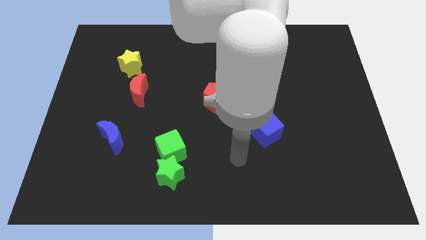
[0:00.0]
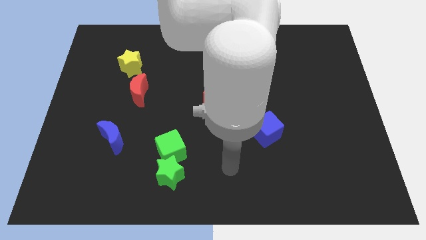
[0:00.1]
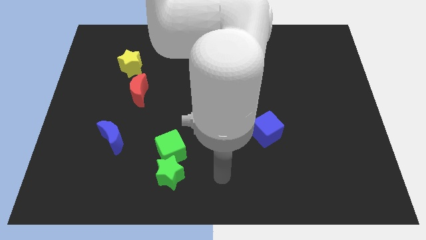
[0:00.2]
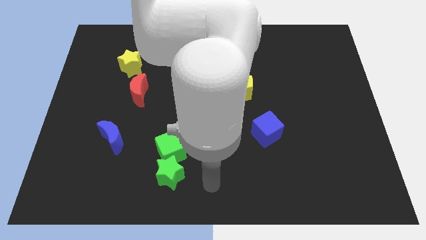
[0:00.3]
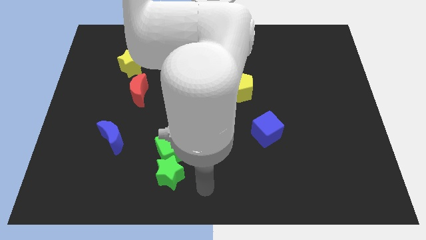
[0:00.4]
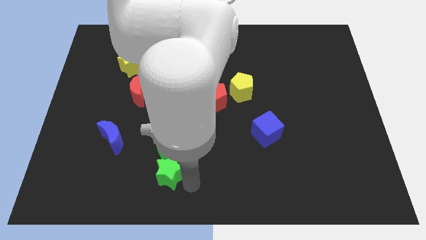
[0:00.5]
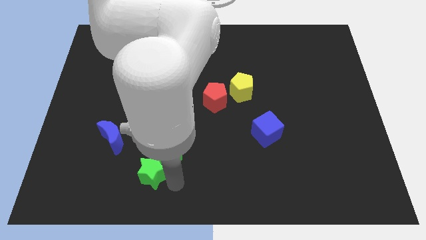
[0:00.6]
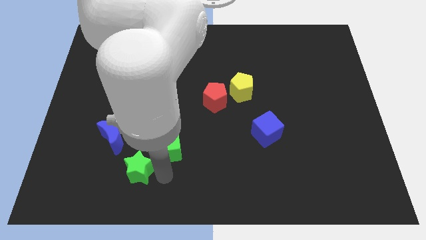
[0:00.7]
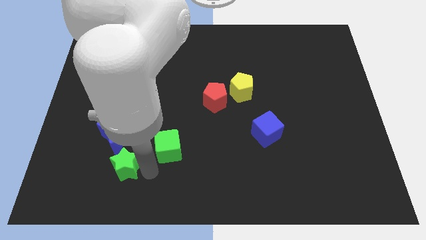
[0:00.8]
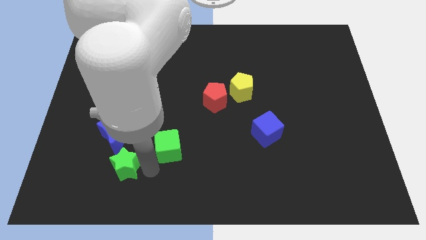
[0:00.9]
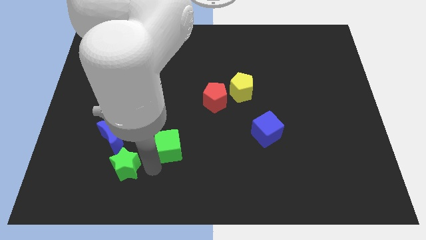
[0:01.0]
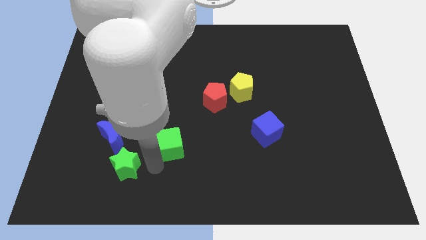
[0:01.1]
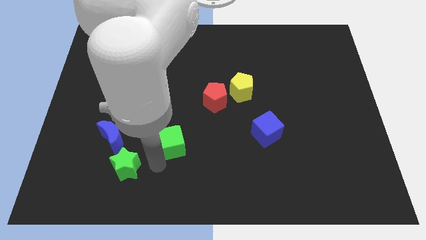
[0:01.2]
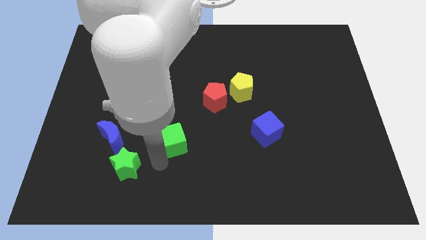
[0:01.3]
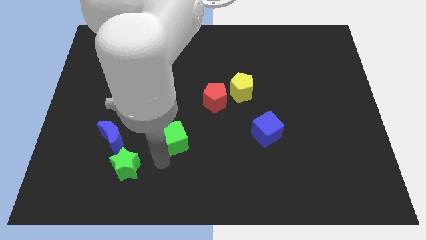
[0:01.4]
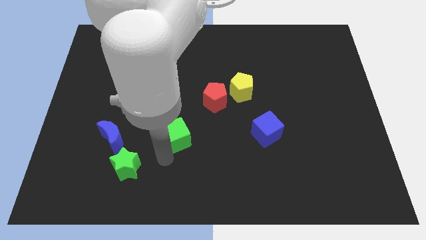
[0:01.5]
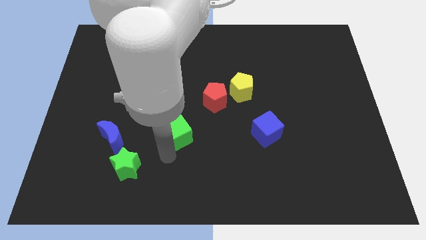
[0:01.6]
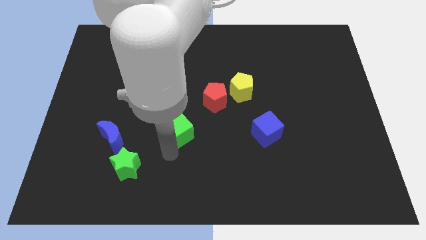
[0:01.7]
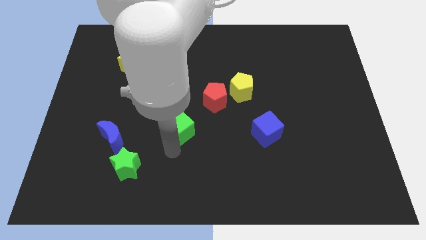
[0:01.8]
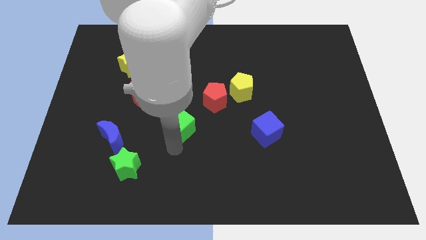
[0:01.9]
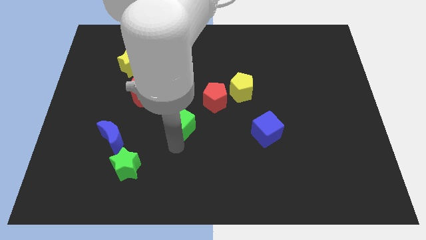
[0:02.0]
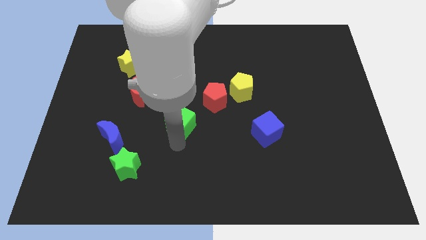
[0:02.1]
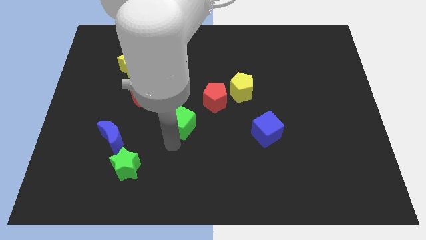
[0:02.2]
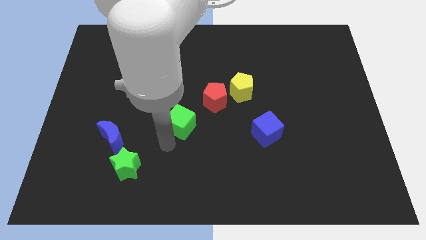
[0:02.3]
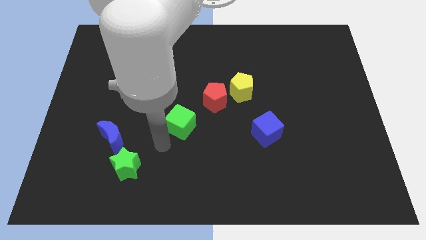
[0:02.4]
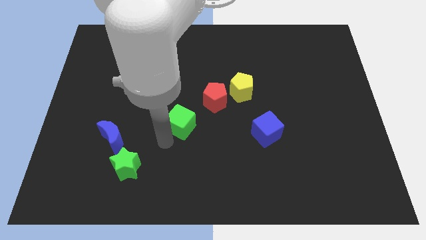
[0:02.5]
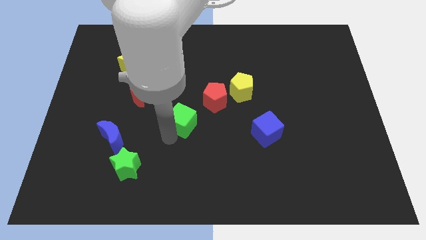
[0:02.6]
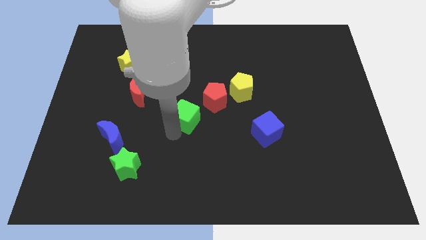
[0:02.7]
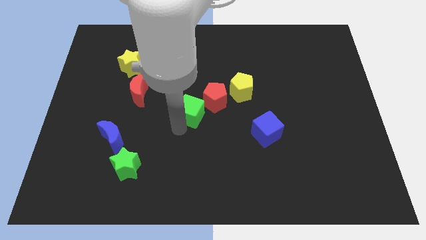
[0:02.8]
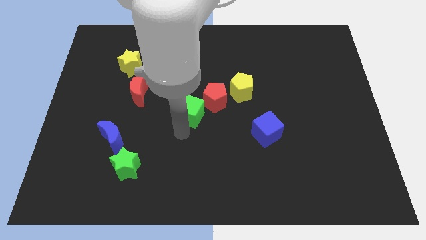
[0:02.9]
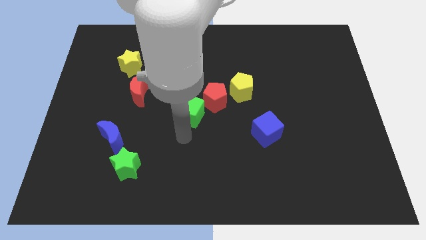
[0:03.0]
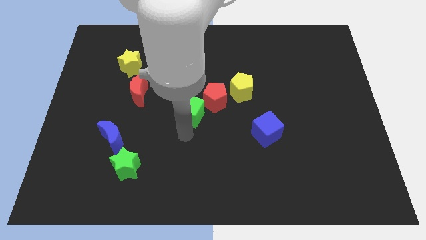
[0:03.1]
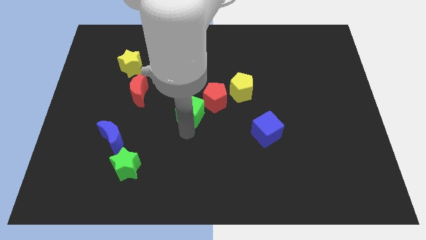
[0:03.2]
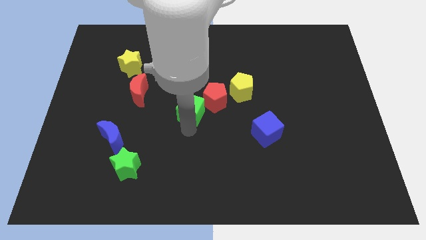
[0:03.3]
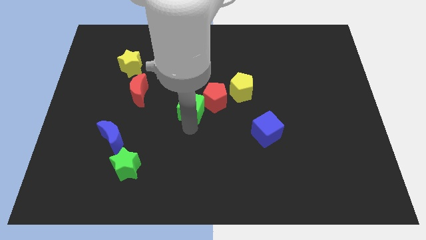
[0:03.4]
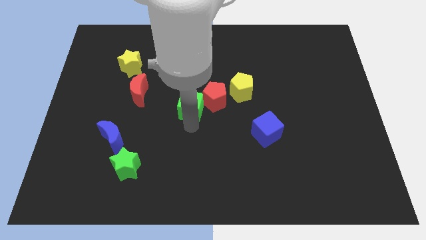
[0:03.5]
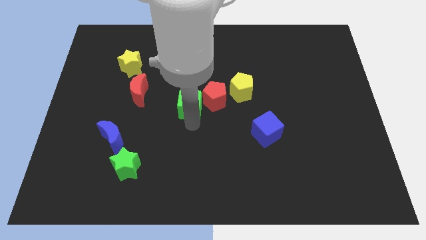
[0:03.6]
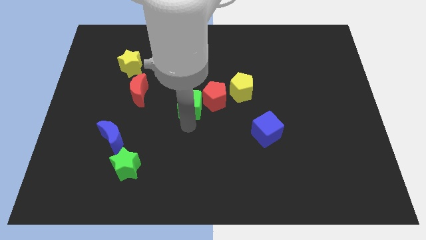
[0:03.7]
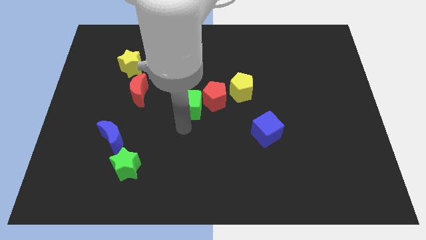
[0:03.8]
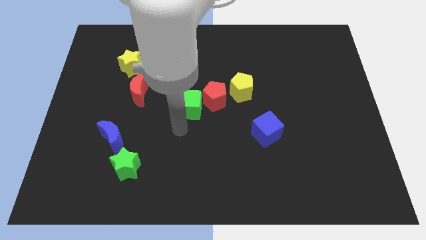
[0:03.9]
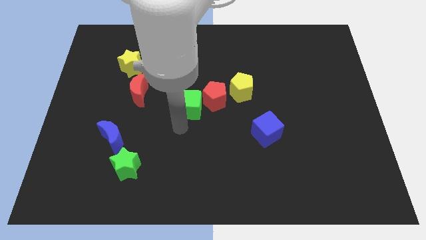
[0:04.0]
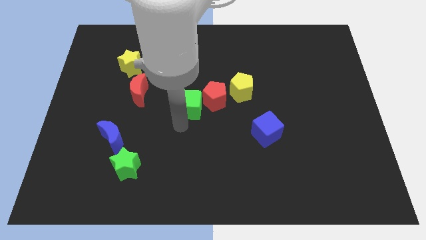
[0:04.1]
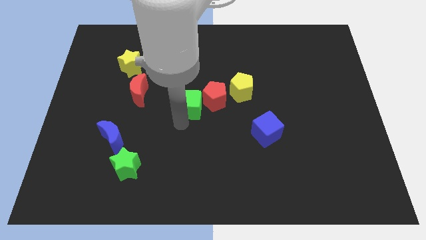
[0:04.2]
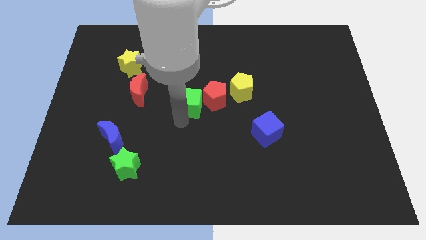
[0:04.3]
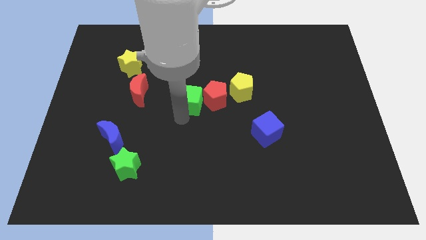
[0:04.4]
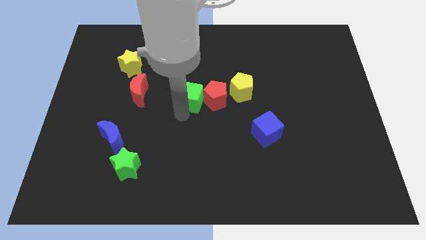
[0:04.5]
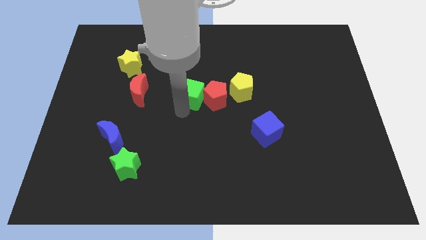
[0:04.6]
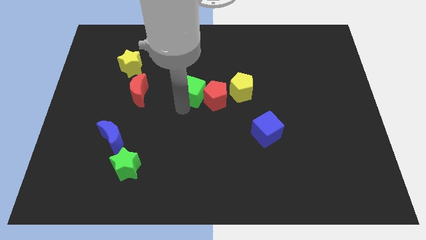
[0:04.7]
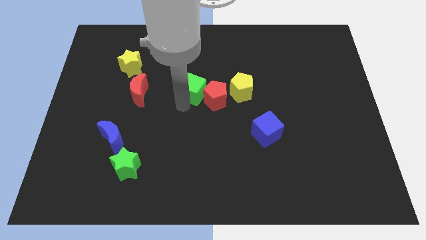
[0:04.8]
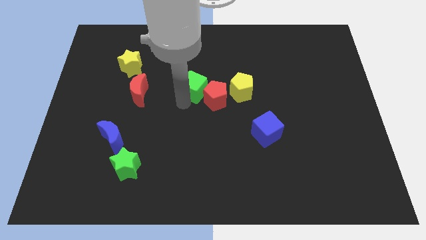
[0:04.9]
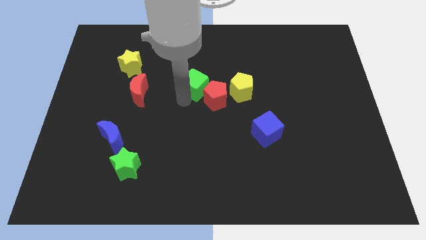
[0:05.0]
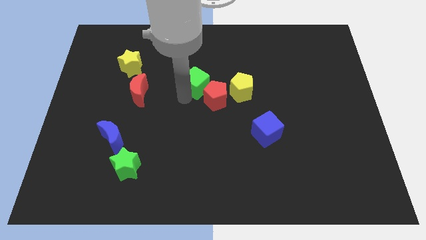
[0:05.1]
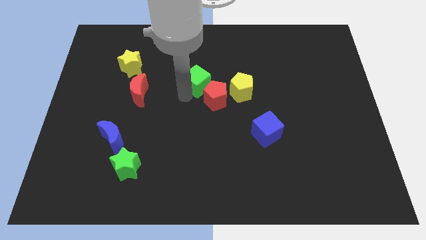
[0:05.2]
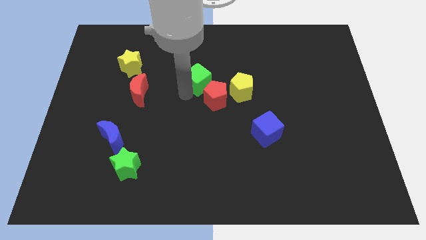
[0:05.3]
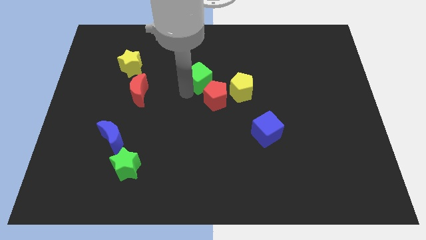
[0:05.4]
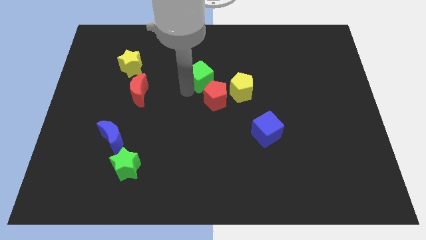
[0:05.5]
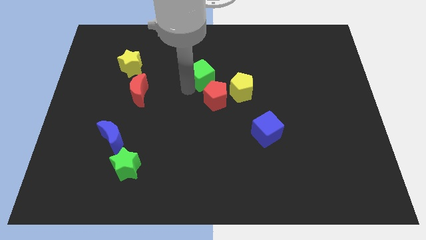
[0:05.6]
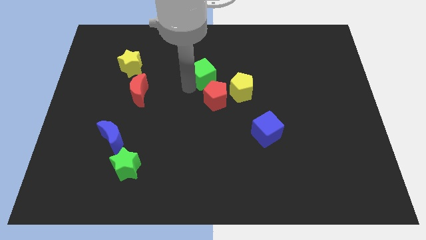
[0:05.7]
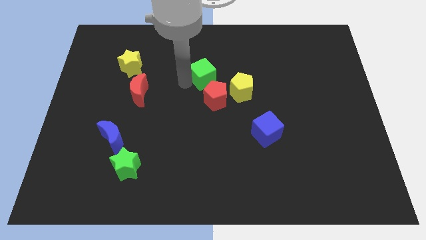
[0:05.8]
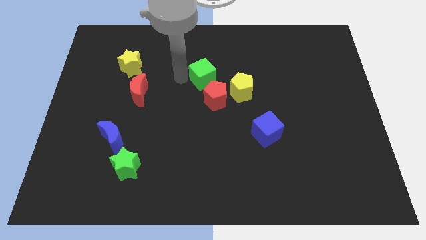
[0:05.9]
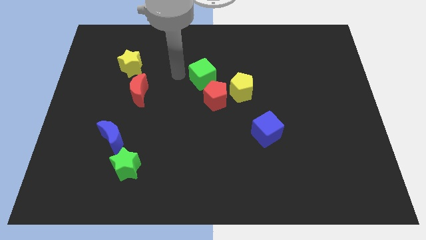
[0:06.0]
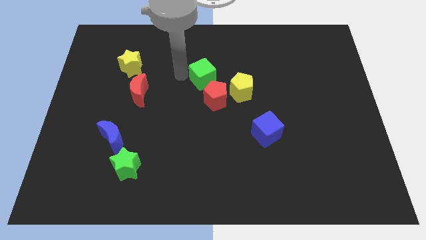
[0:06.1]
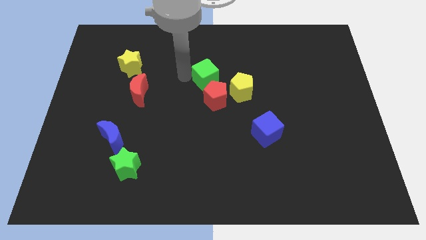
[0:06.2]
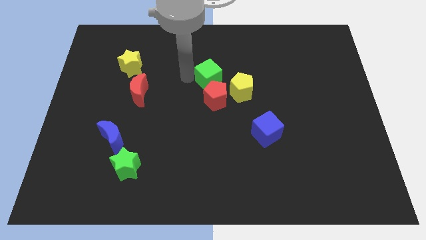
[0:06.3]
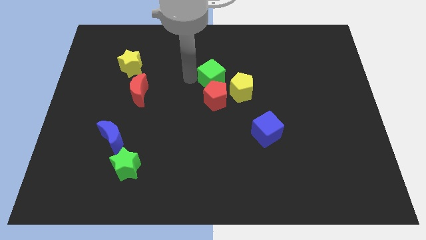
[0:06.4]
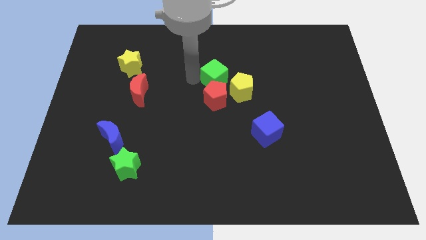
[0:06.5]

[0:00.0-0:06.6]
put the green cube to the top right of the red pentagon

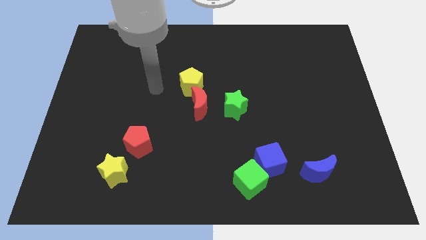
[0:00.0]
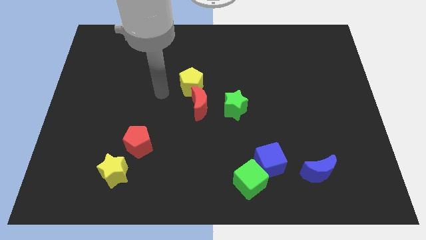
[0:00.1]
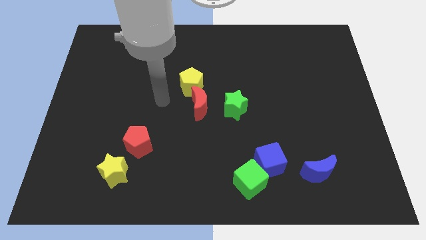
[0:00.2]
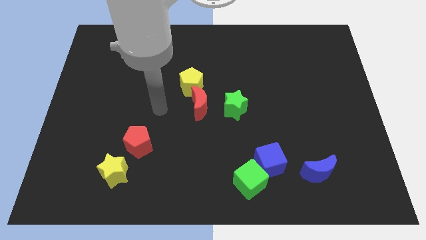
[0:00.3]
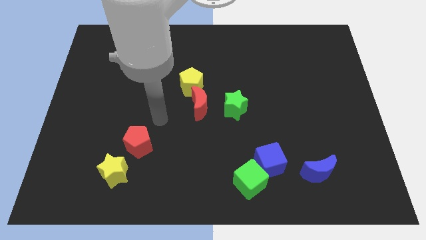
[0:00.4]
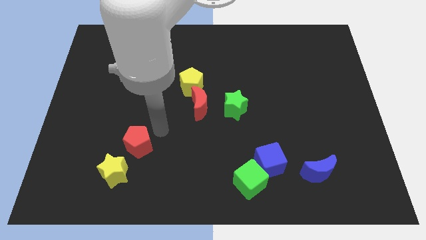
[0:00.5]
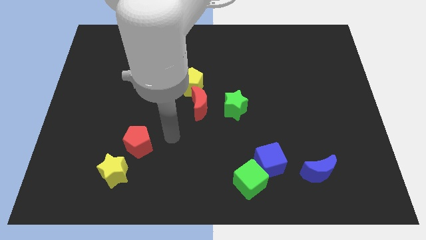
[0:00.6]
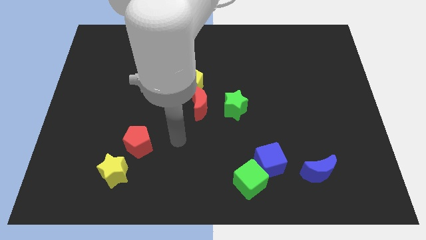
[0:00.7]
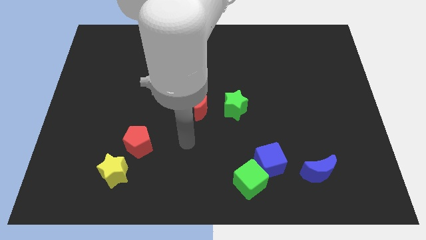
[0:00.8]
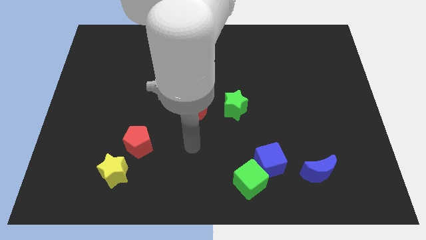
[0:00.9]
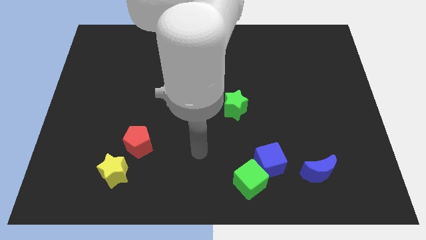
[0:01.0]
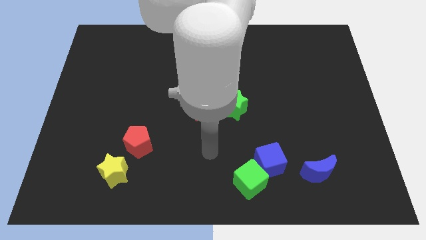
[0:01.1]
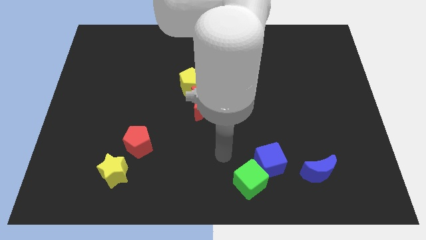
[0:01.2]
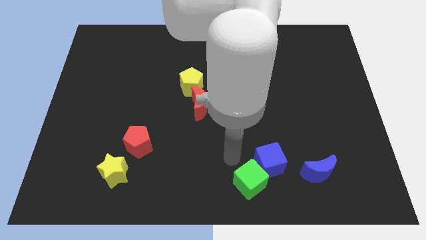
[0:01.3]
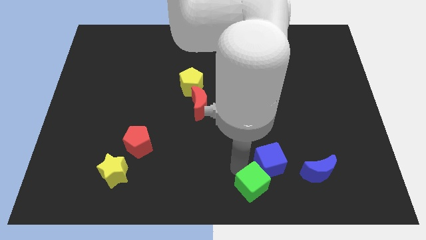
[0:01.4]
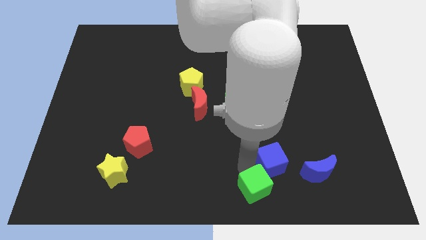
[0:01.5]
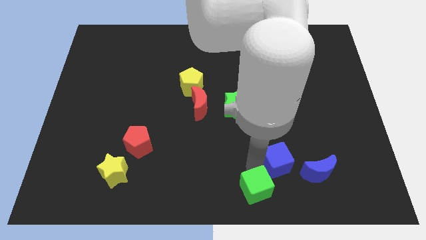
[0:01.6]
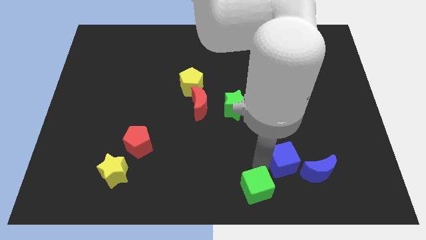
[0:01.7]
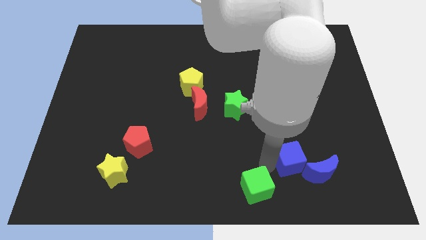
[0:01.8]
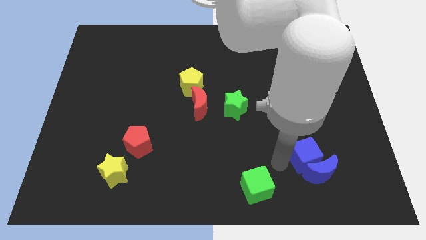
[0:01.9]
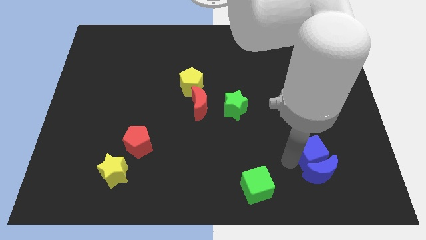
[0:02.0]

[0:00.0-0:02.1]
slide the blue cube to the top right of the blue moon
